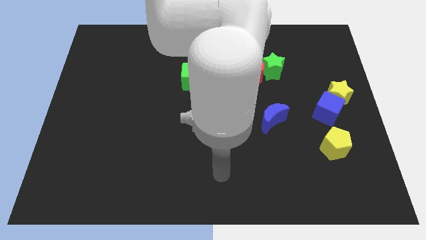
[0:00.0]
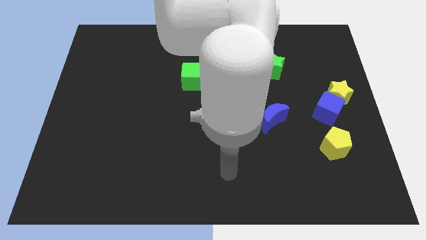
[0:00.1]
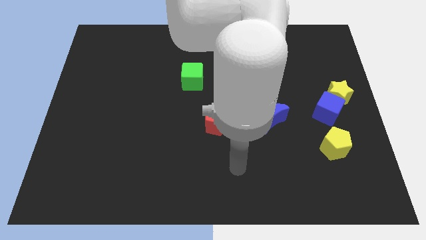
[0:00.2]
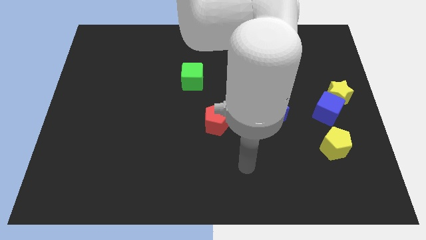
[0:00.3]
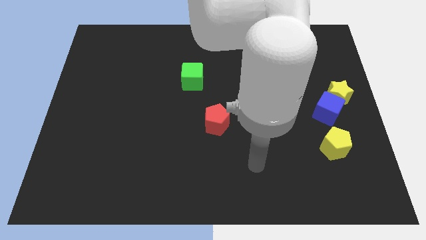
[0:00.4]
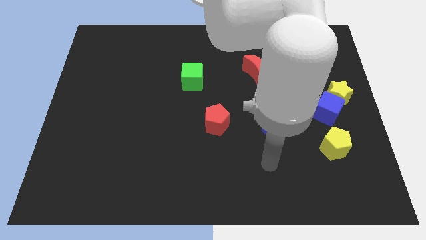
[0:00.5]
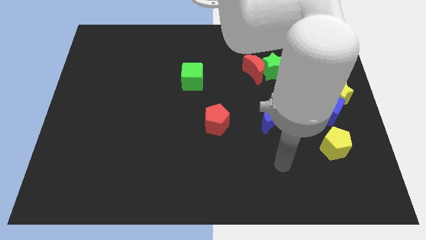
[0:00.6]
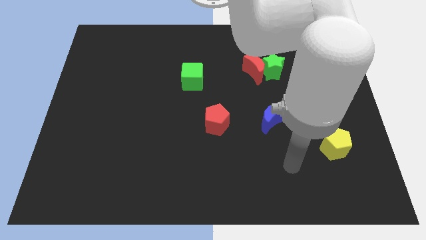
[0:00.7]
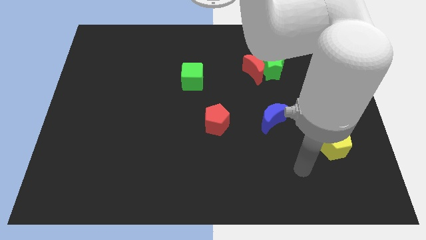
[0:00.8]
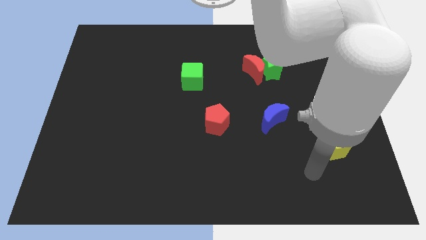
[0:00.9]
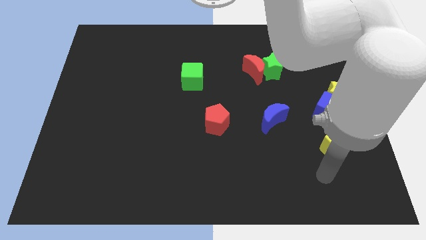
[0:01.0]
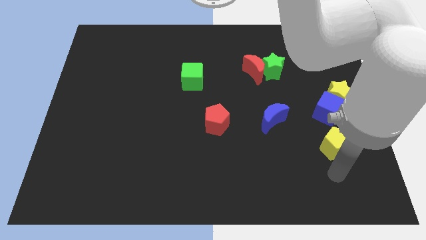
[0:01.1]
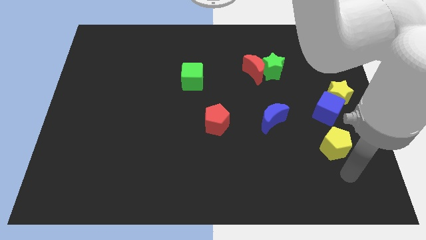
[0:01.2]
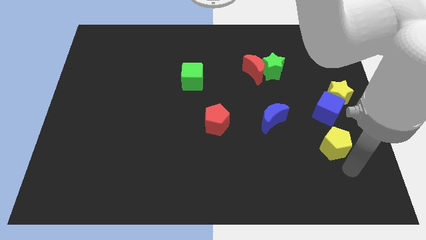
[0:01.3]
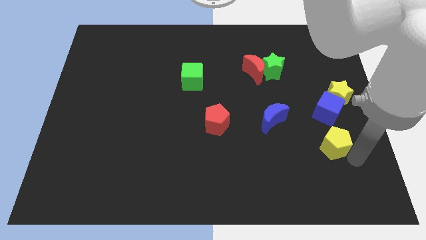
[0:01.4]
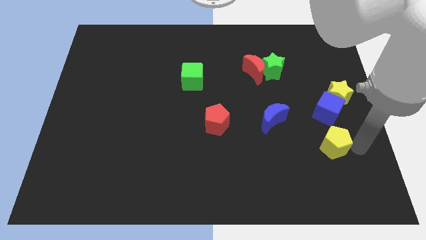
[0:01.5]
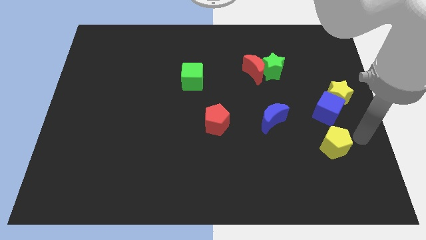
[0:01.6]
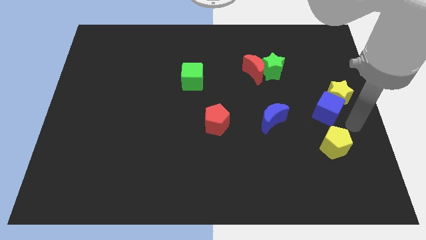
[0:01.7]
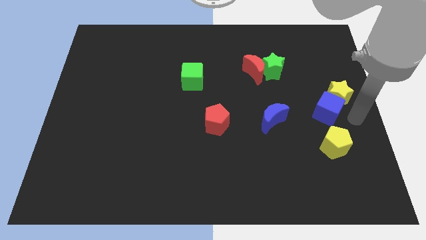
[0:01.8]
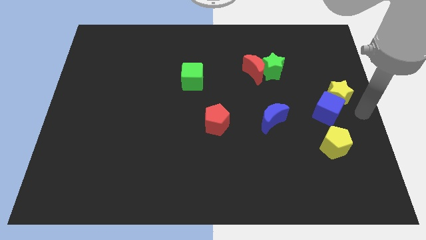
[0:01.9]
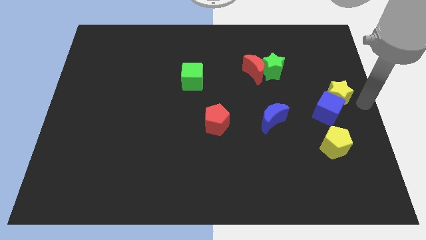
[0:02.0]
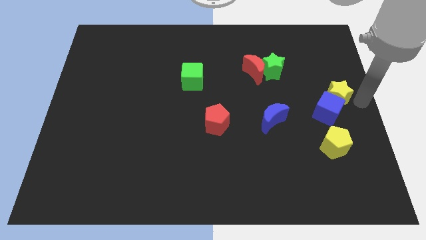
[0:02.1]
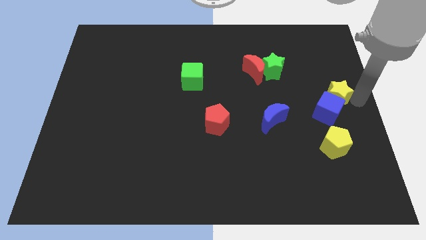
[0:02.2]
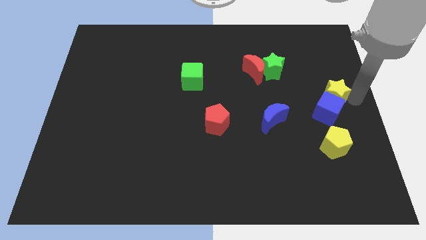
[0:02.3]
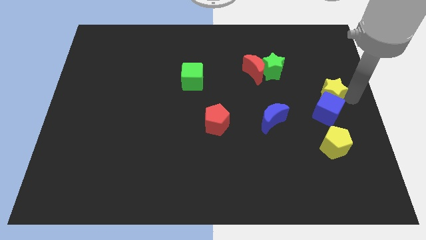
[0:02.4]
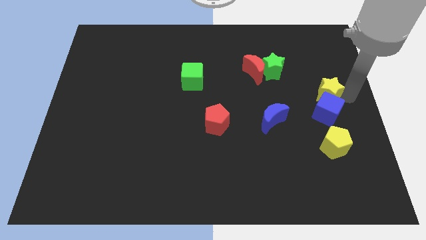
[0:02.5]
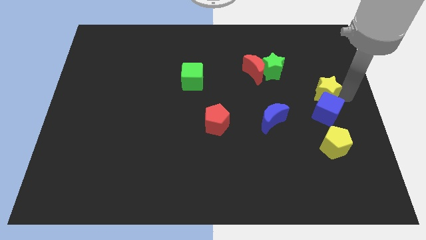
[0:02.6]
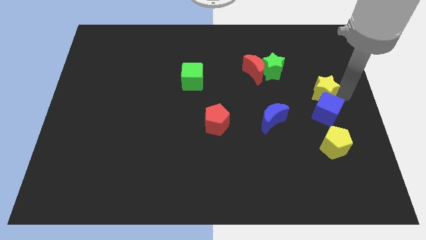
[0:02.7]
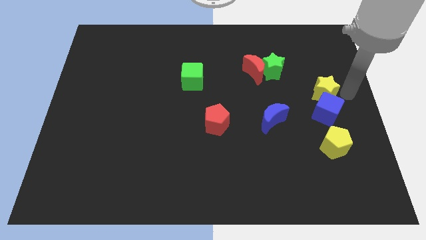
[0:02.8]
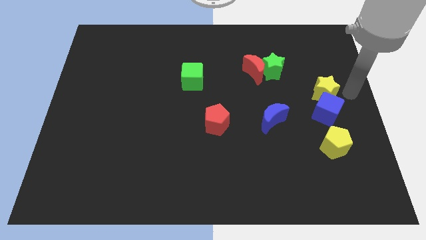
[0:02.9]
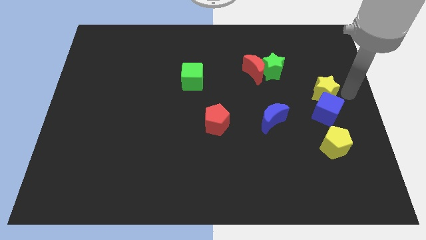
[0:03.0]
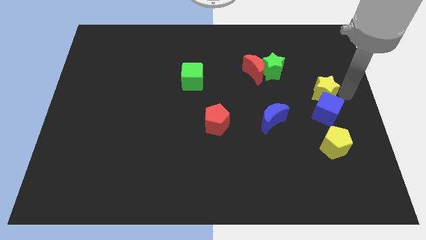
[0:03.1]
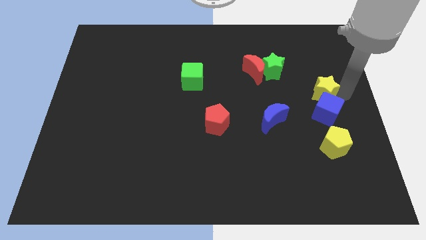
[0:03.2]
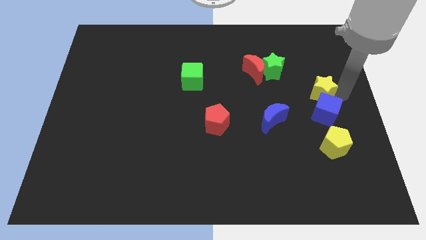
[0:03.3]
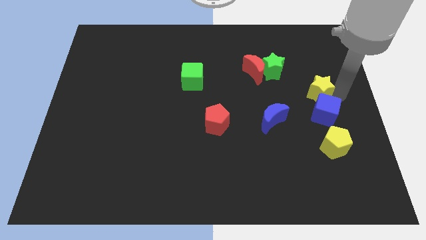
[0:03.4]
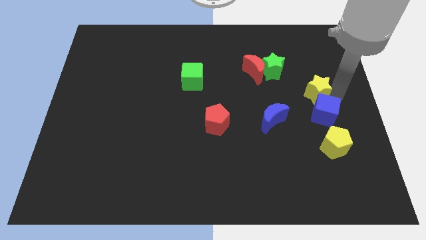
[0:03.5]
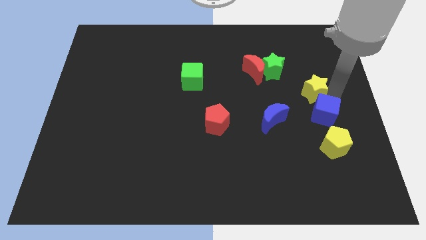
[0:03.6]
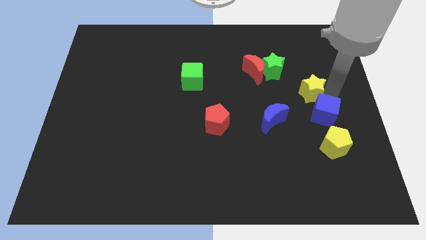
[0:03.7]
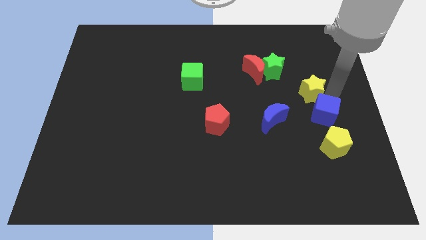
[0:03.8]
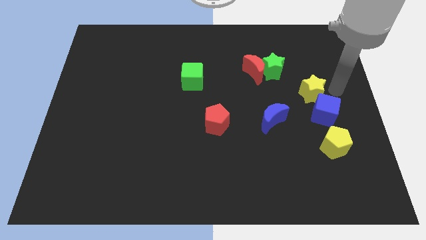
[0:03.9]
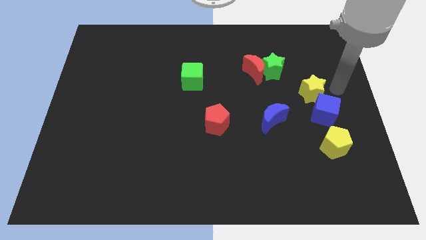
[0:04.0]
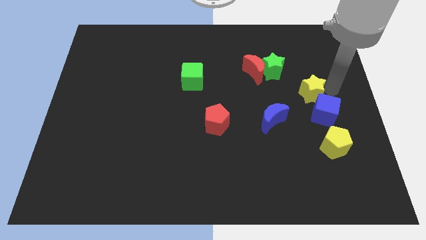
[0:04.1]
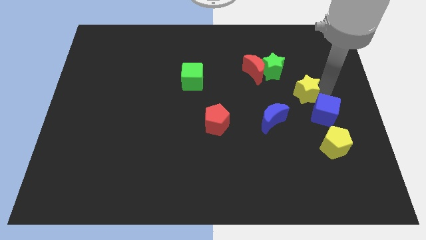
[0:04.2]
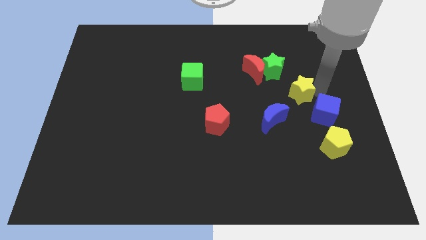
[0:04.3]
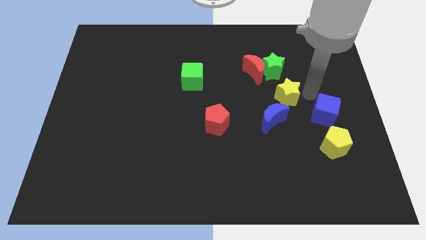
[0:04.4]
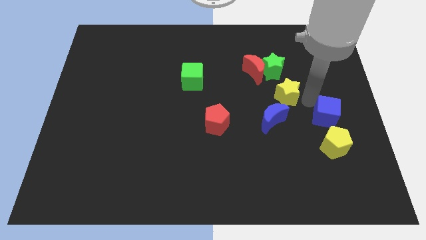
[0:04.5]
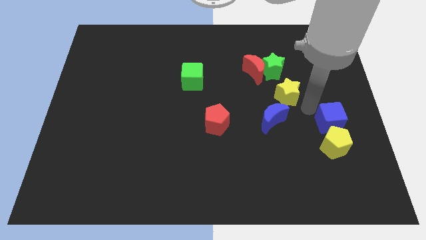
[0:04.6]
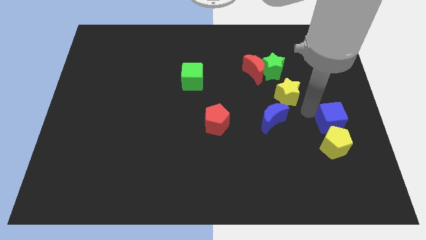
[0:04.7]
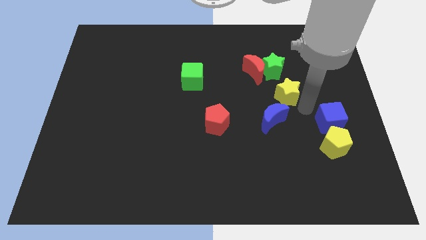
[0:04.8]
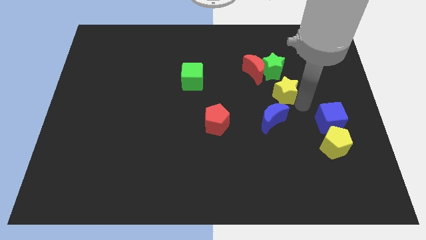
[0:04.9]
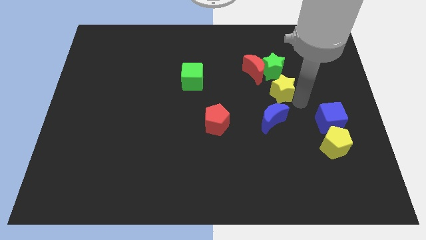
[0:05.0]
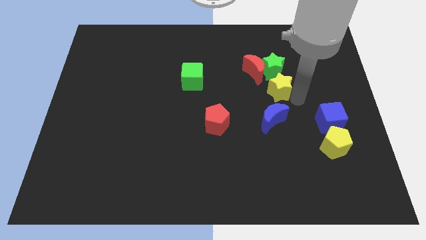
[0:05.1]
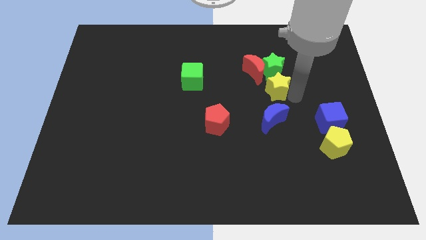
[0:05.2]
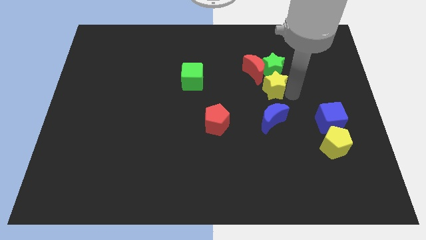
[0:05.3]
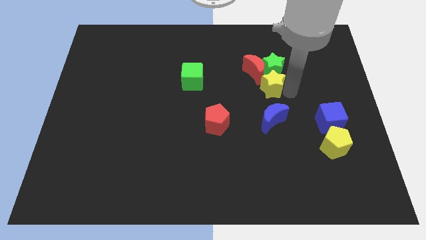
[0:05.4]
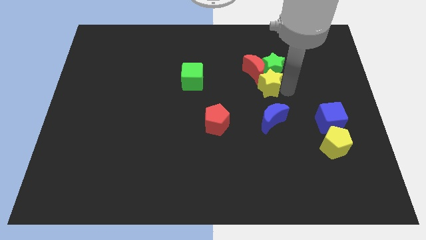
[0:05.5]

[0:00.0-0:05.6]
push the yellow star next to the red moon
